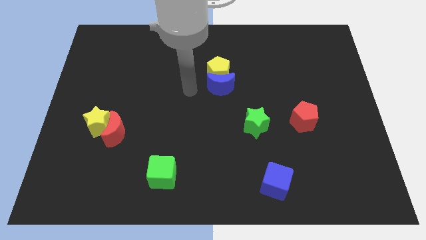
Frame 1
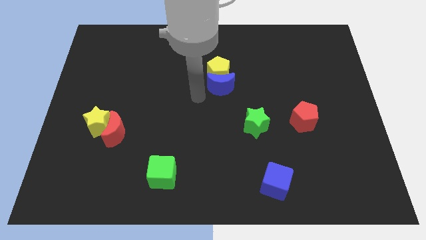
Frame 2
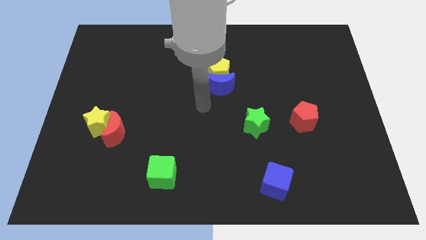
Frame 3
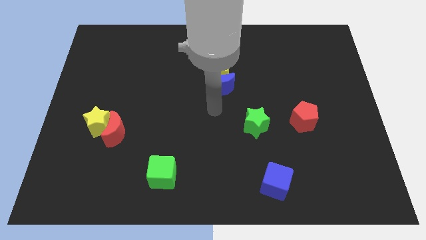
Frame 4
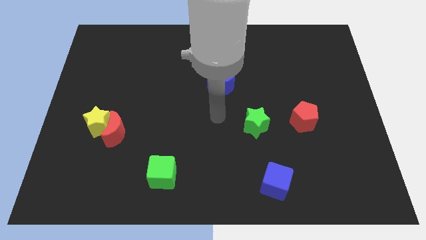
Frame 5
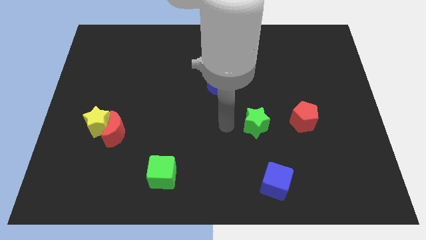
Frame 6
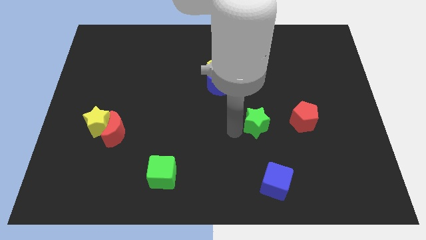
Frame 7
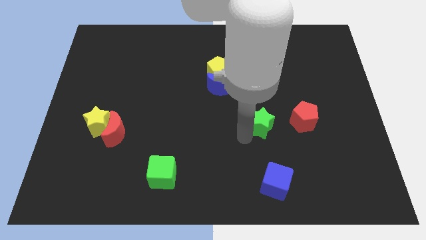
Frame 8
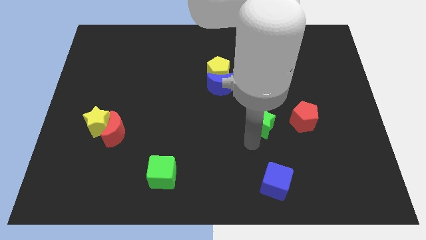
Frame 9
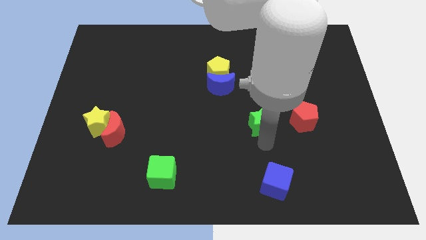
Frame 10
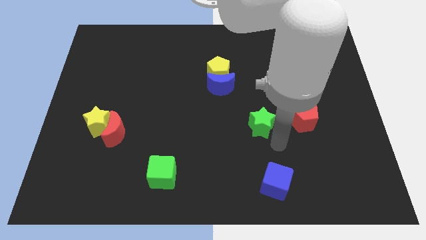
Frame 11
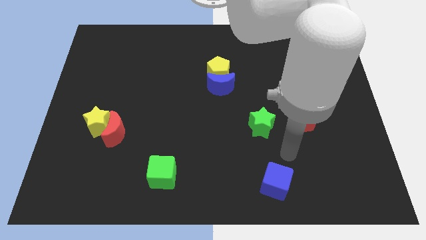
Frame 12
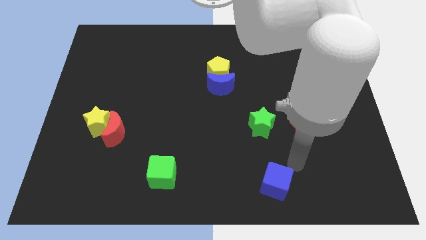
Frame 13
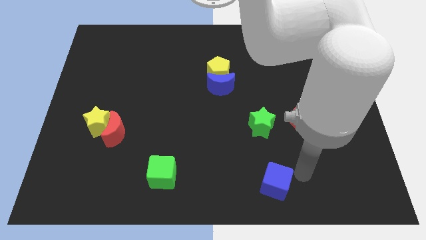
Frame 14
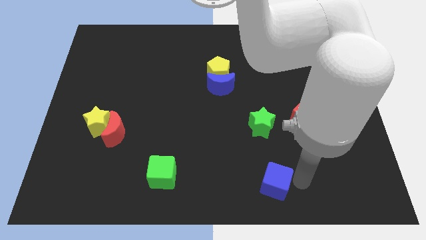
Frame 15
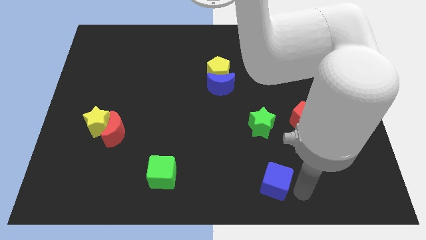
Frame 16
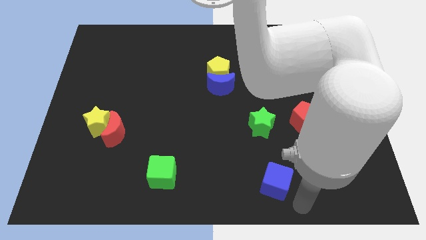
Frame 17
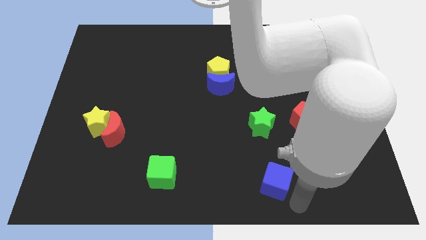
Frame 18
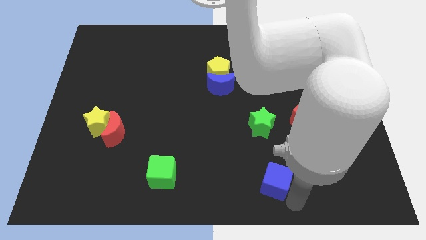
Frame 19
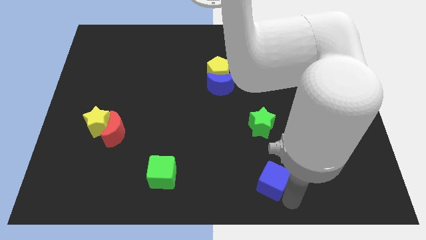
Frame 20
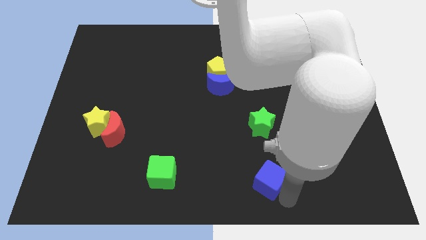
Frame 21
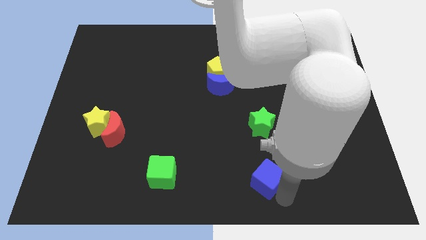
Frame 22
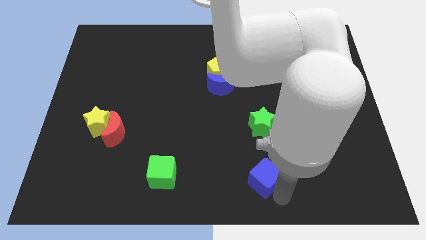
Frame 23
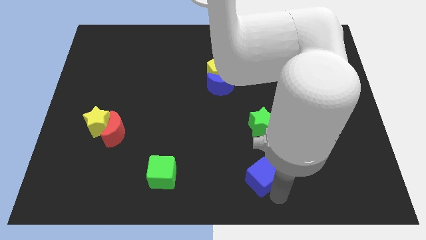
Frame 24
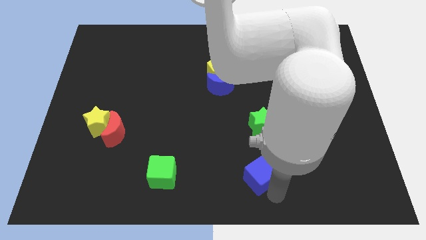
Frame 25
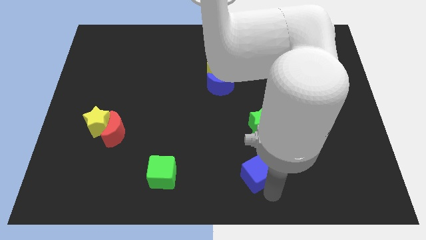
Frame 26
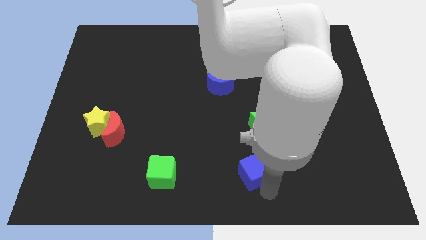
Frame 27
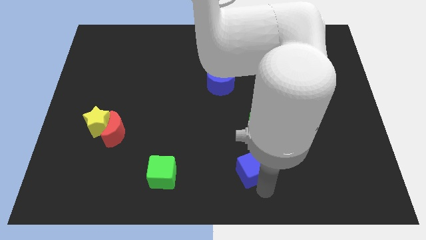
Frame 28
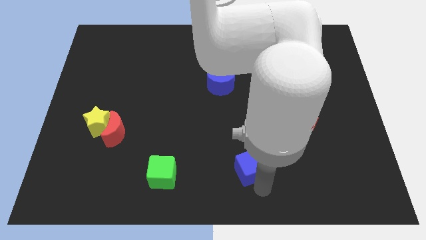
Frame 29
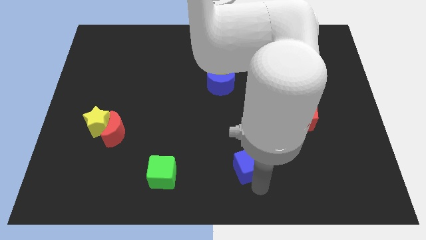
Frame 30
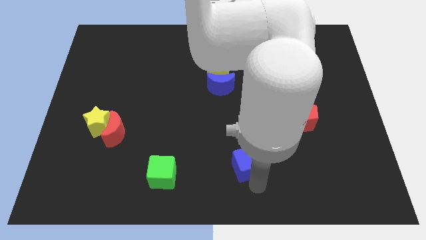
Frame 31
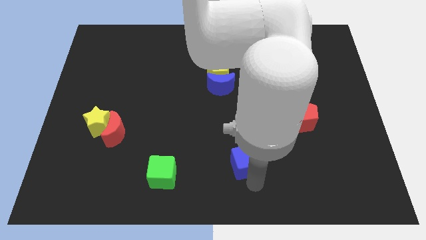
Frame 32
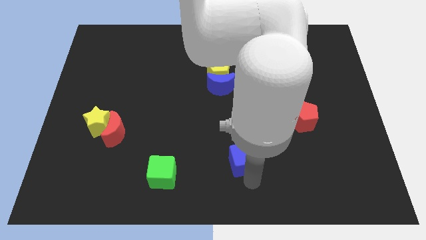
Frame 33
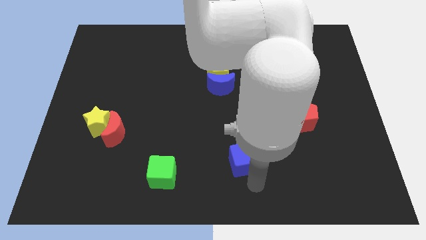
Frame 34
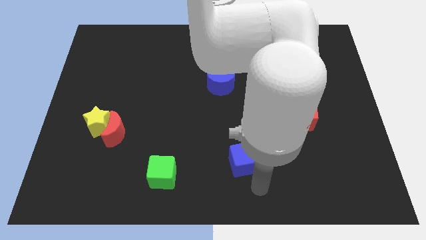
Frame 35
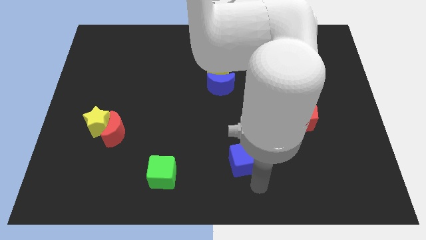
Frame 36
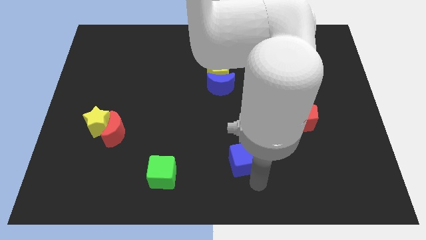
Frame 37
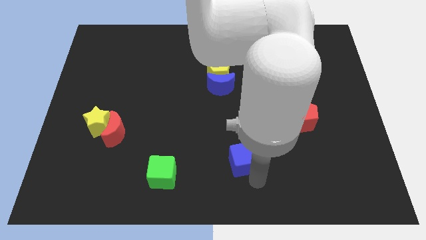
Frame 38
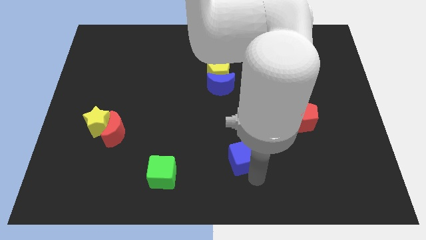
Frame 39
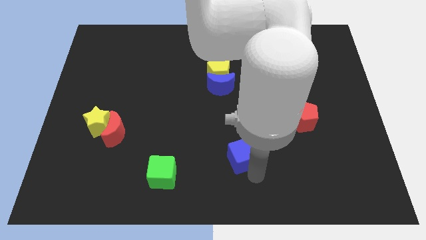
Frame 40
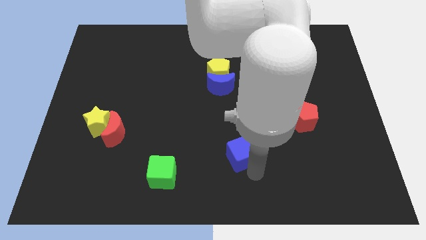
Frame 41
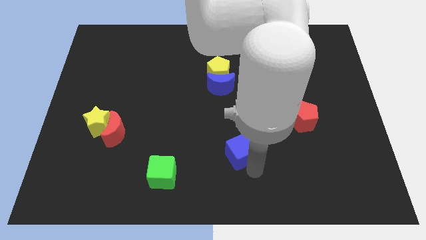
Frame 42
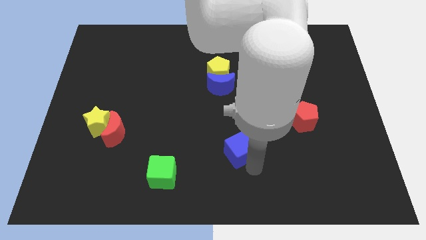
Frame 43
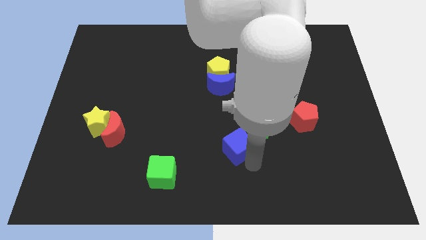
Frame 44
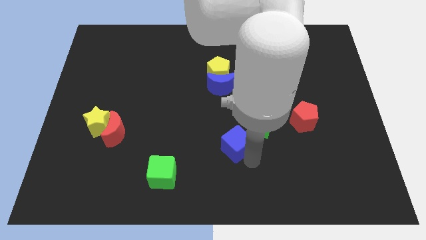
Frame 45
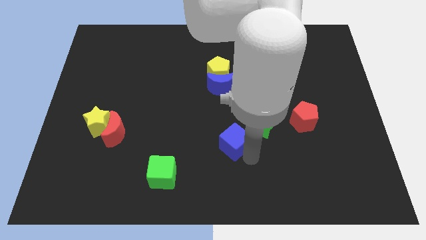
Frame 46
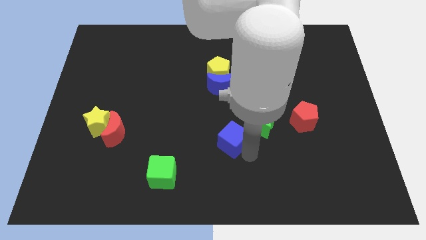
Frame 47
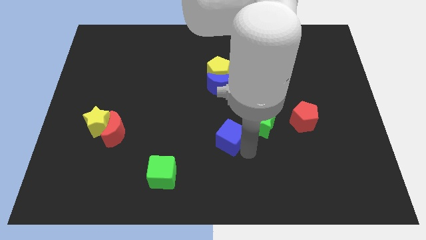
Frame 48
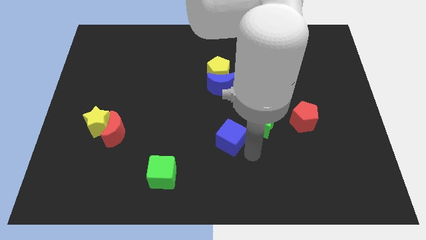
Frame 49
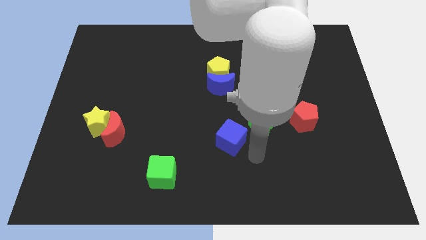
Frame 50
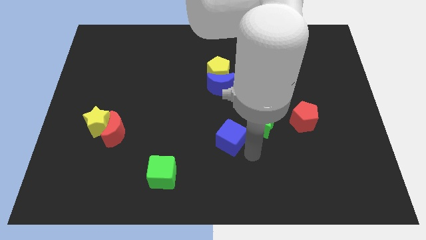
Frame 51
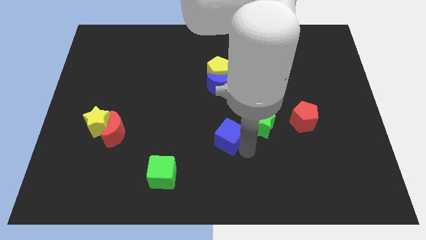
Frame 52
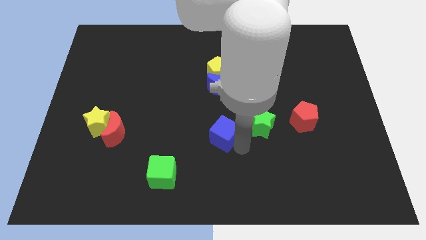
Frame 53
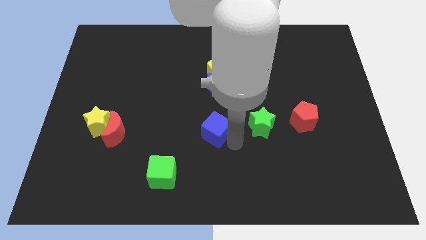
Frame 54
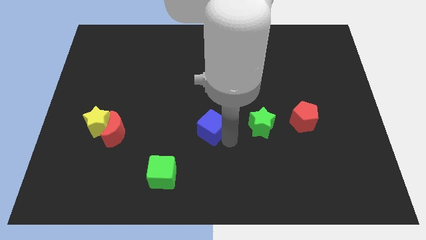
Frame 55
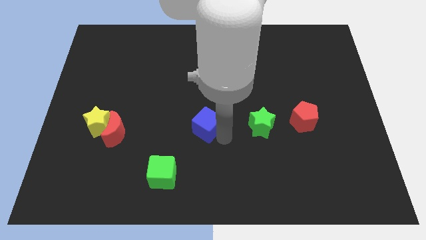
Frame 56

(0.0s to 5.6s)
move the blue cube upwards and left

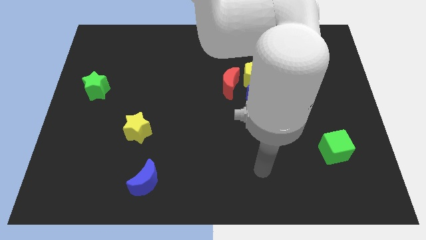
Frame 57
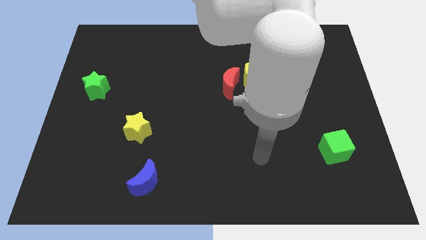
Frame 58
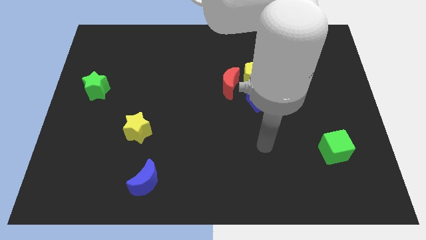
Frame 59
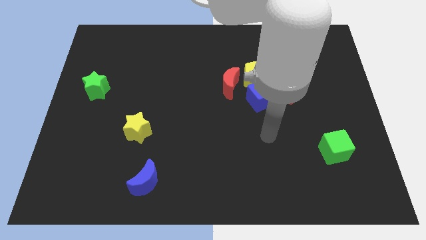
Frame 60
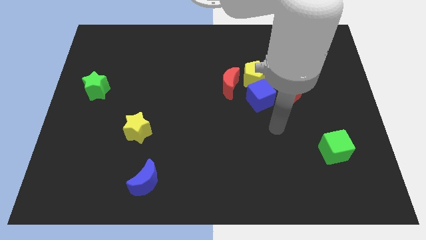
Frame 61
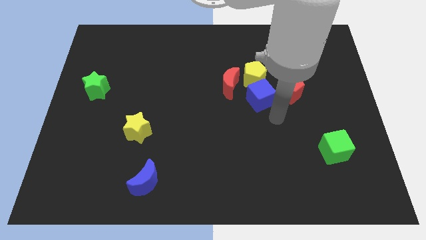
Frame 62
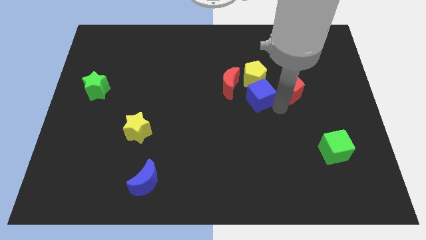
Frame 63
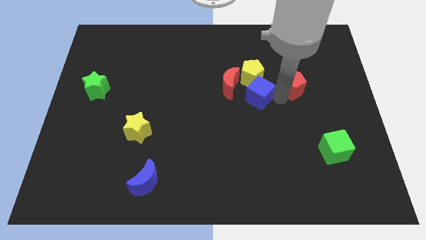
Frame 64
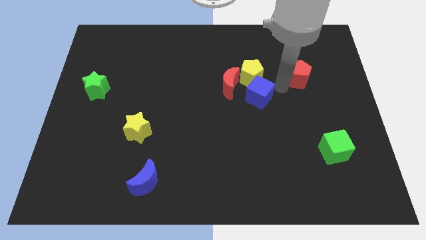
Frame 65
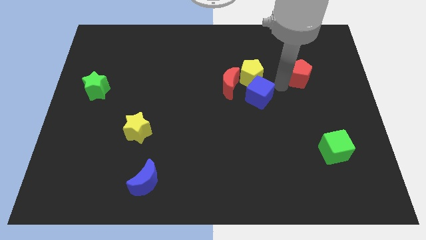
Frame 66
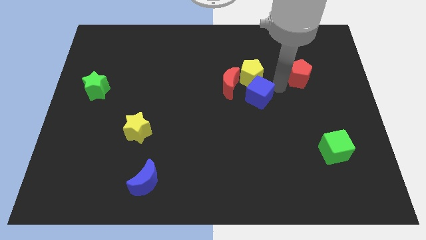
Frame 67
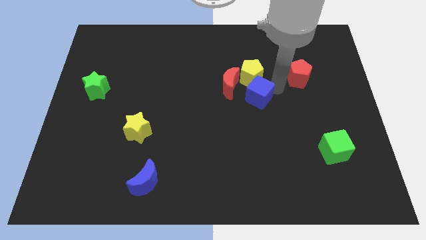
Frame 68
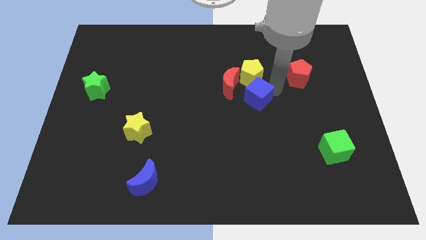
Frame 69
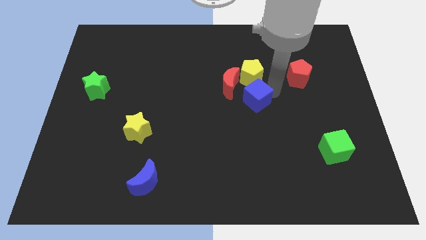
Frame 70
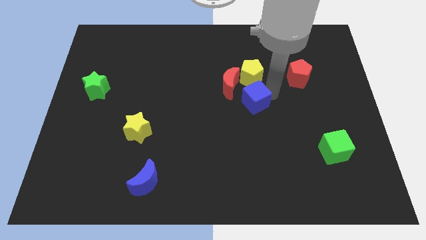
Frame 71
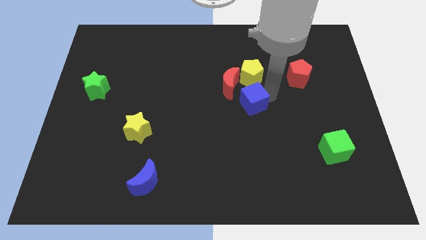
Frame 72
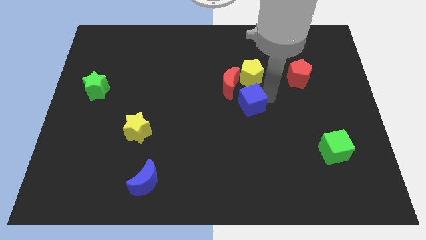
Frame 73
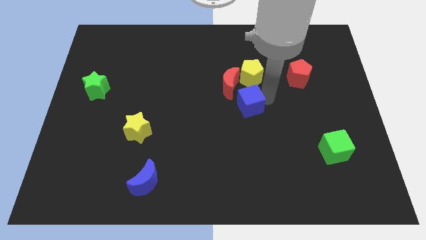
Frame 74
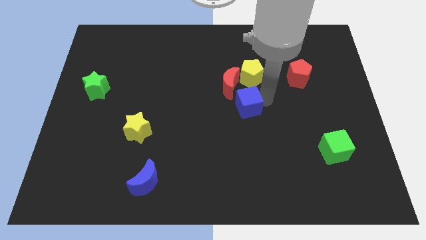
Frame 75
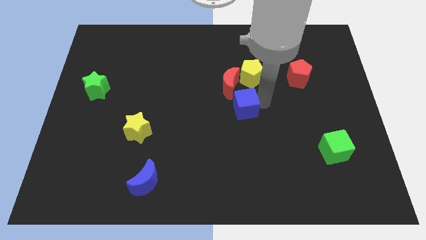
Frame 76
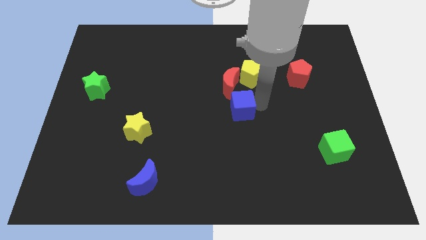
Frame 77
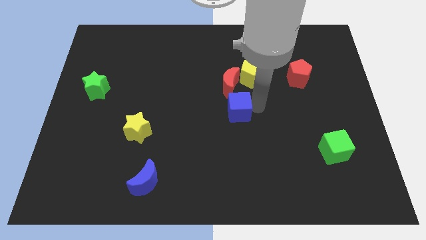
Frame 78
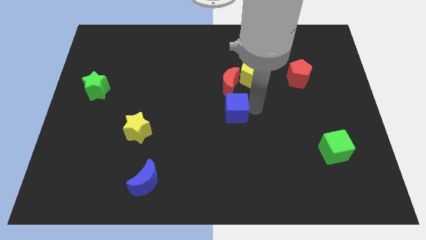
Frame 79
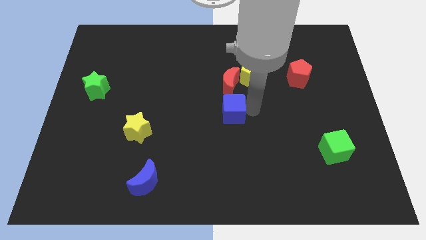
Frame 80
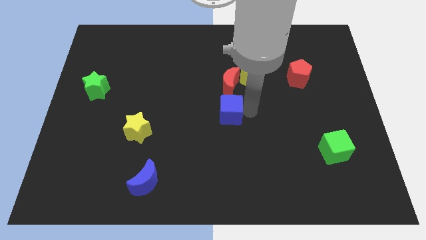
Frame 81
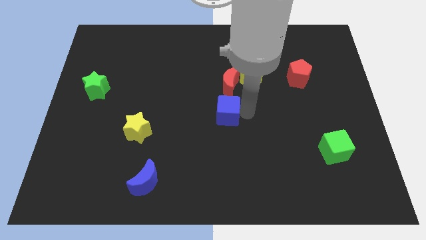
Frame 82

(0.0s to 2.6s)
move the blue cube left somewhat
